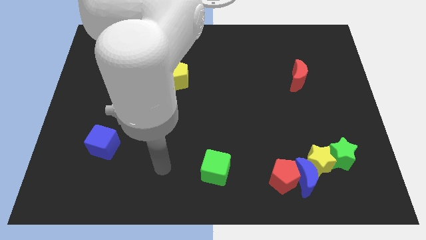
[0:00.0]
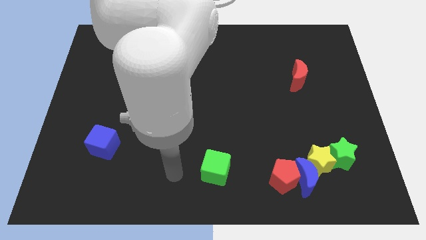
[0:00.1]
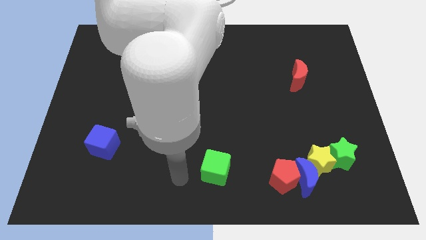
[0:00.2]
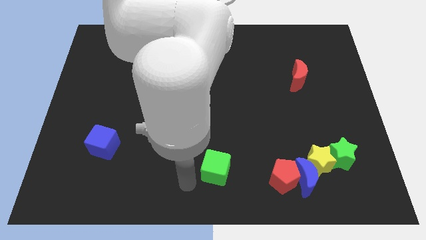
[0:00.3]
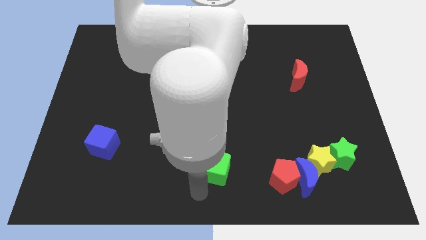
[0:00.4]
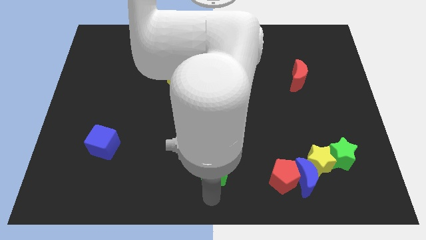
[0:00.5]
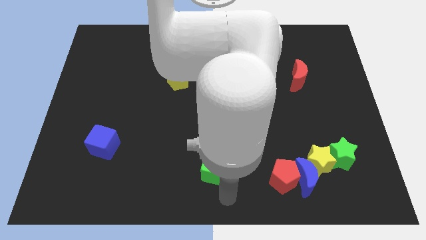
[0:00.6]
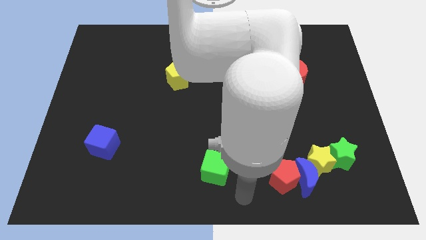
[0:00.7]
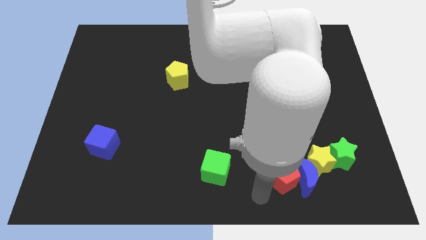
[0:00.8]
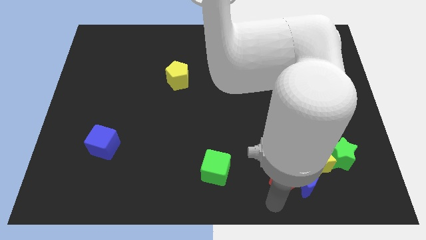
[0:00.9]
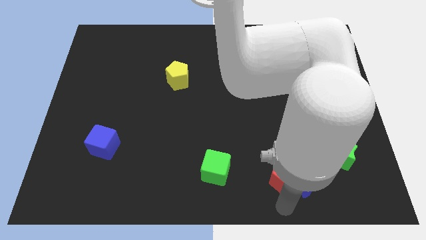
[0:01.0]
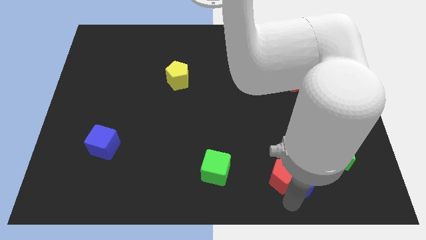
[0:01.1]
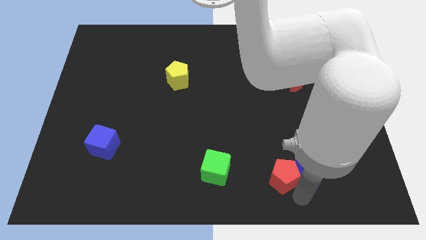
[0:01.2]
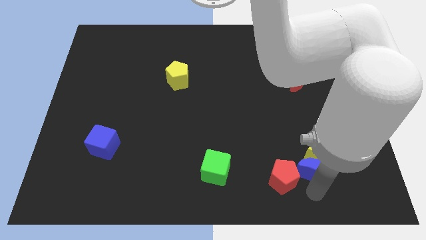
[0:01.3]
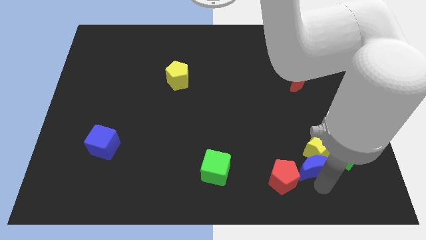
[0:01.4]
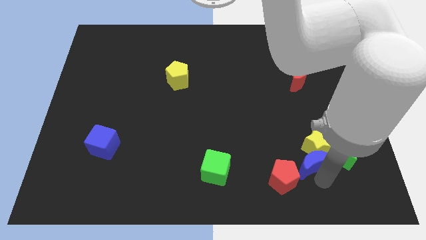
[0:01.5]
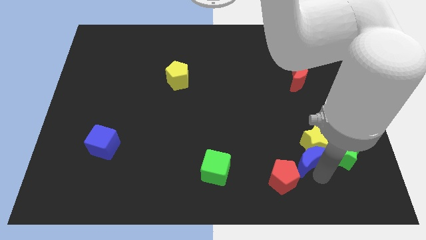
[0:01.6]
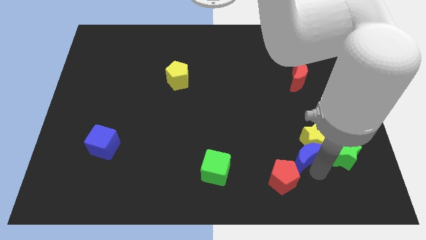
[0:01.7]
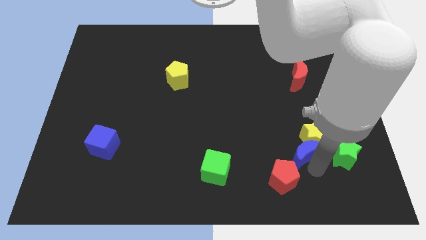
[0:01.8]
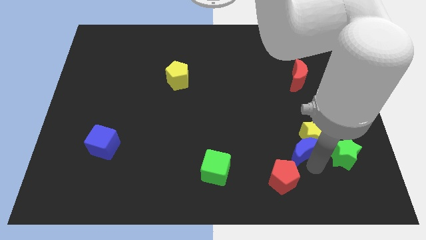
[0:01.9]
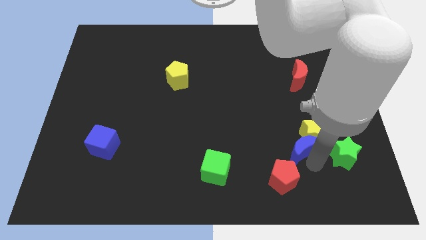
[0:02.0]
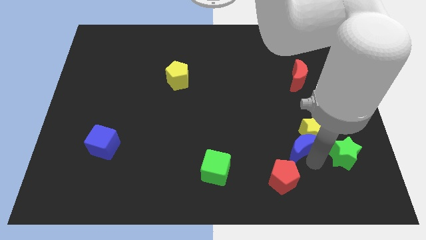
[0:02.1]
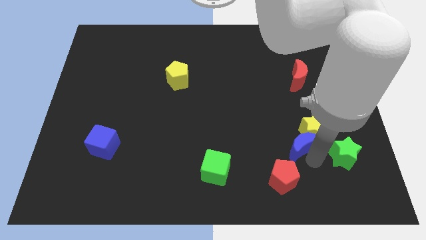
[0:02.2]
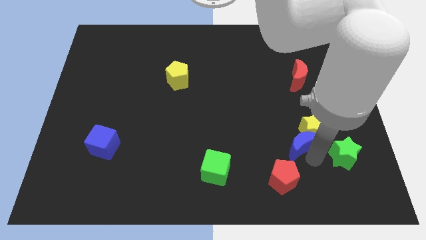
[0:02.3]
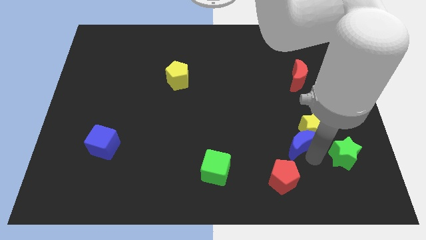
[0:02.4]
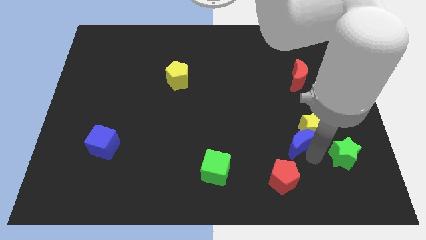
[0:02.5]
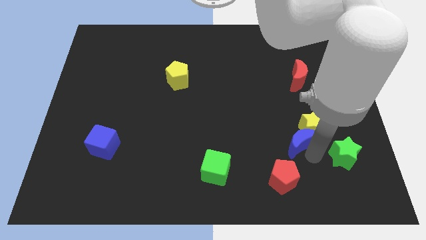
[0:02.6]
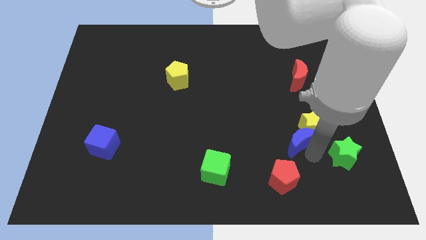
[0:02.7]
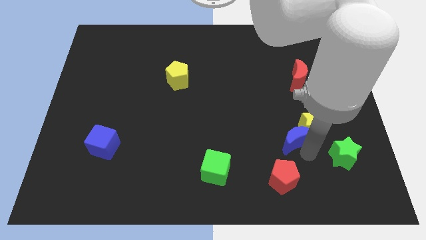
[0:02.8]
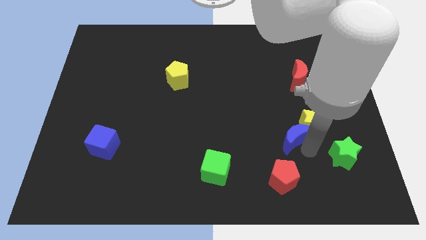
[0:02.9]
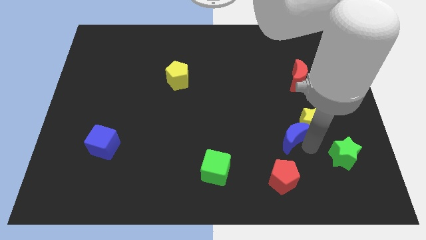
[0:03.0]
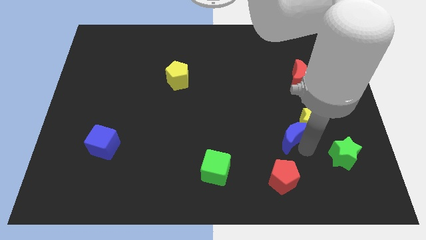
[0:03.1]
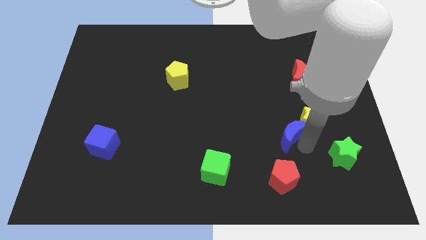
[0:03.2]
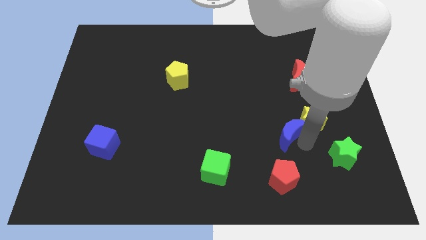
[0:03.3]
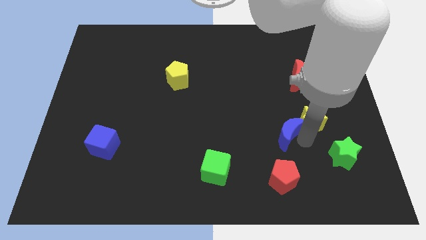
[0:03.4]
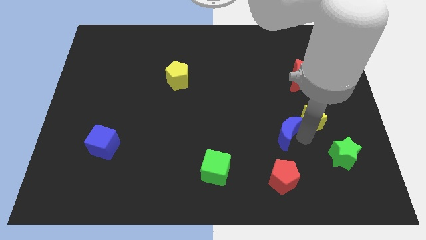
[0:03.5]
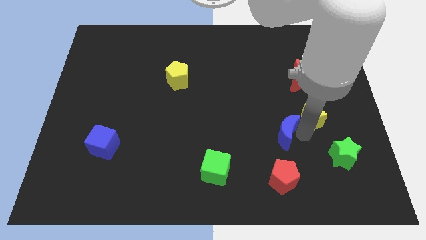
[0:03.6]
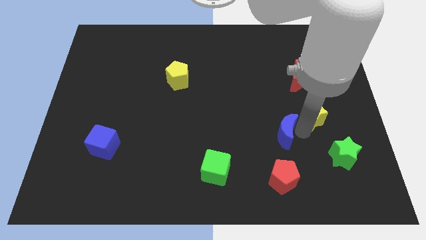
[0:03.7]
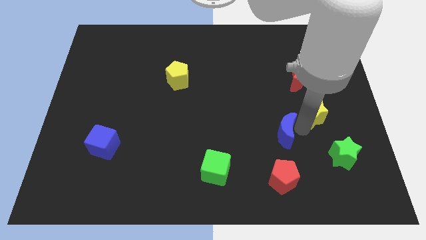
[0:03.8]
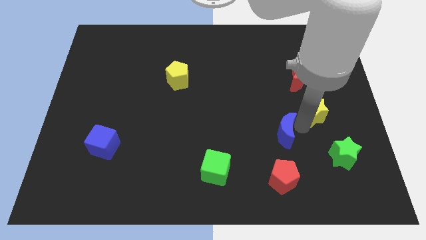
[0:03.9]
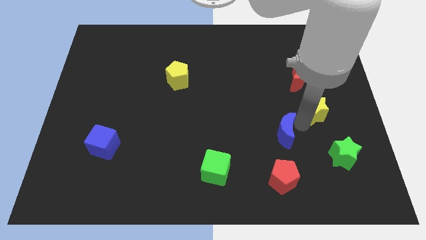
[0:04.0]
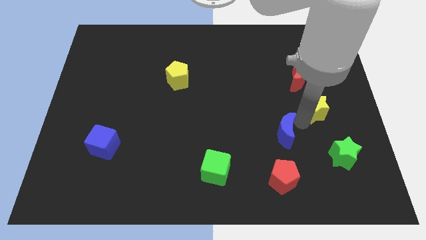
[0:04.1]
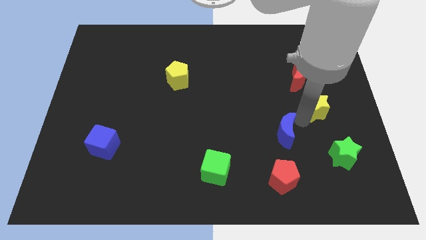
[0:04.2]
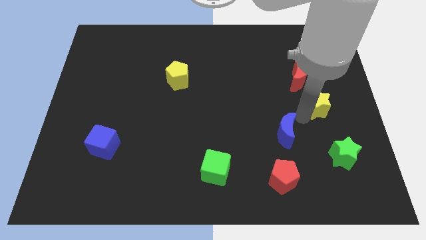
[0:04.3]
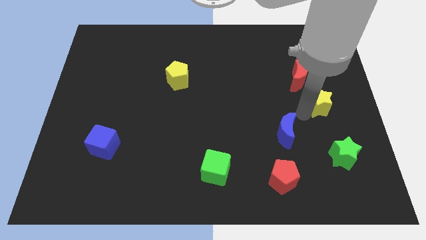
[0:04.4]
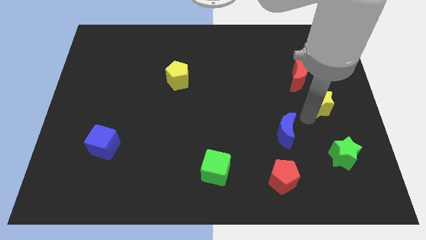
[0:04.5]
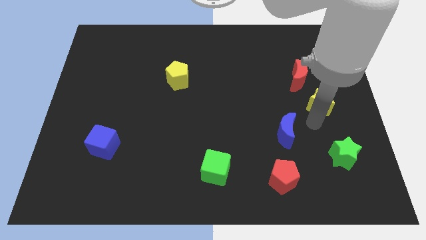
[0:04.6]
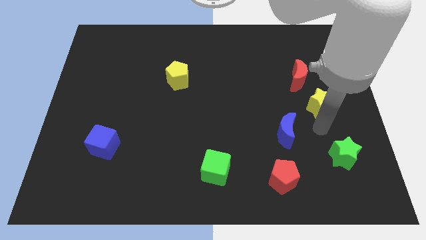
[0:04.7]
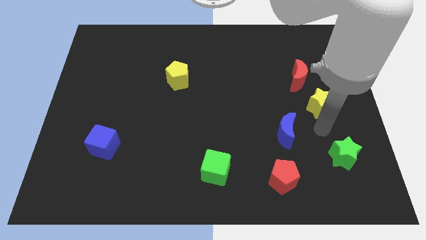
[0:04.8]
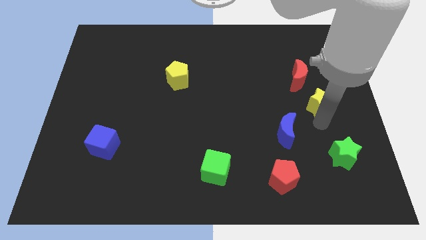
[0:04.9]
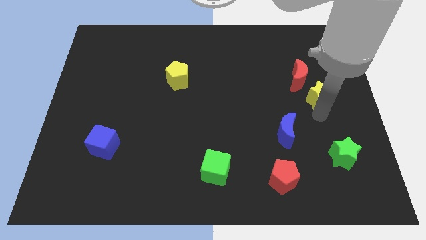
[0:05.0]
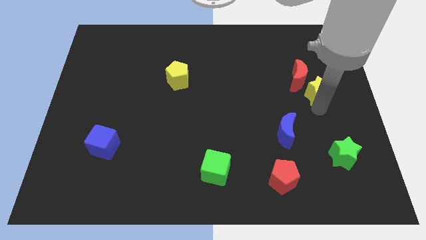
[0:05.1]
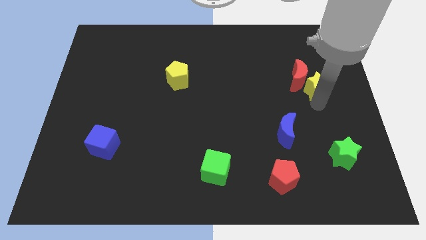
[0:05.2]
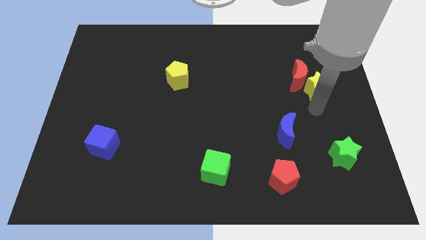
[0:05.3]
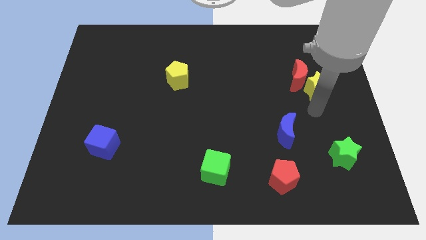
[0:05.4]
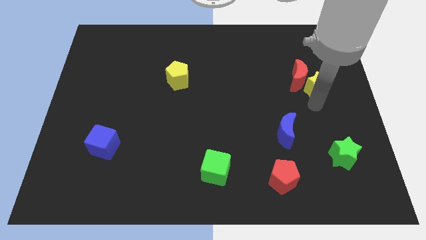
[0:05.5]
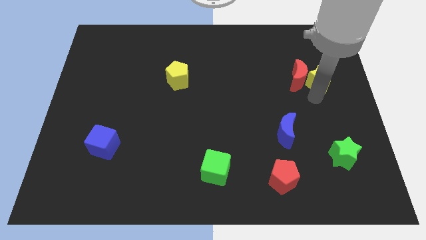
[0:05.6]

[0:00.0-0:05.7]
slide the yellow star to the top right of the red moon

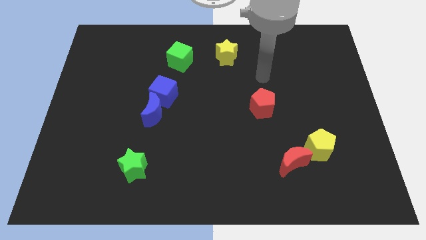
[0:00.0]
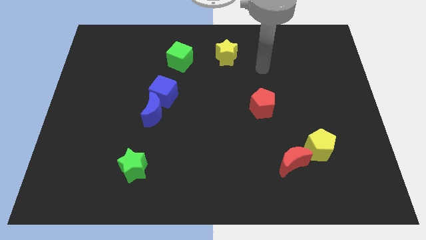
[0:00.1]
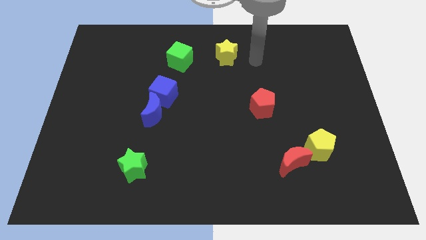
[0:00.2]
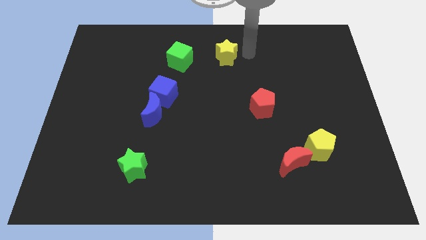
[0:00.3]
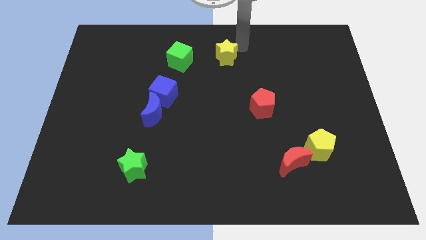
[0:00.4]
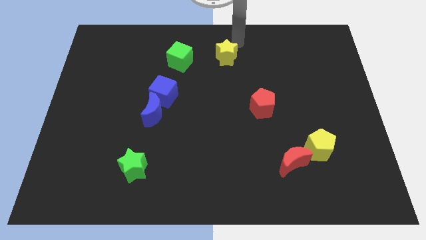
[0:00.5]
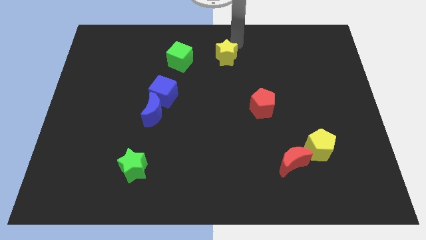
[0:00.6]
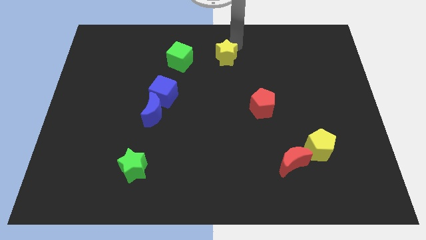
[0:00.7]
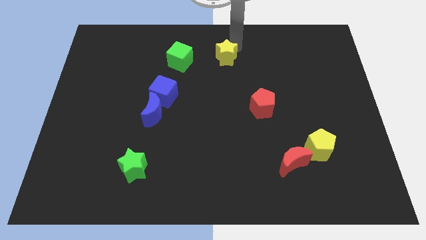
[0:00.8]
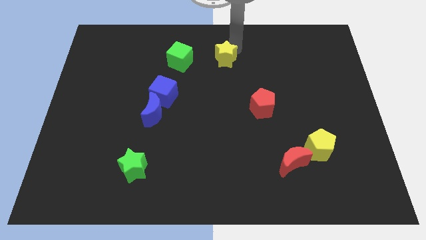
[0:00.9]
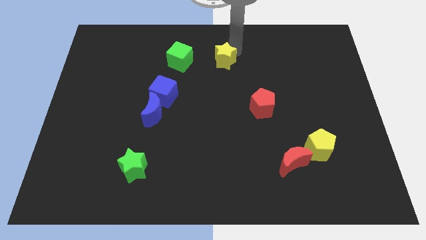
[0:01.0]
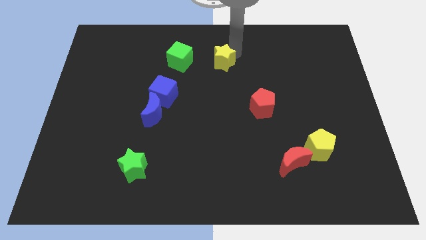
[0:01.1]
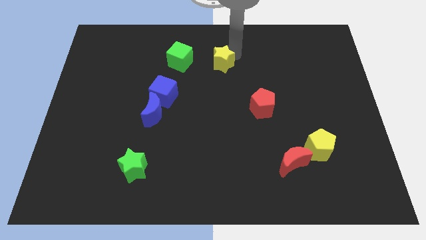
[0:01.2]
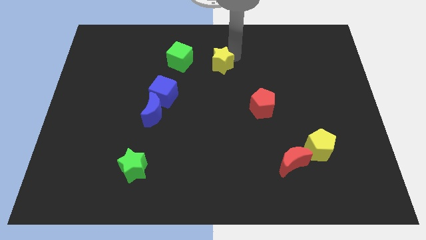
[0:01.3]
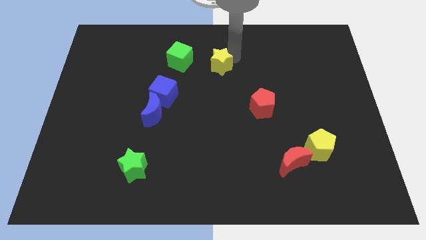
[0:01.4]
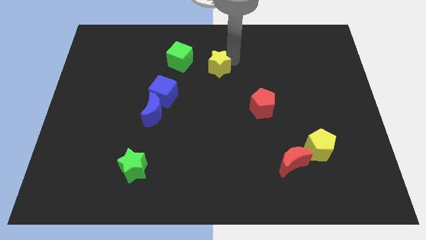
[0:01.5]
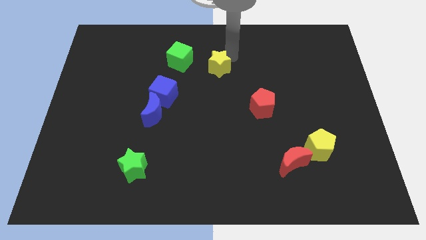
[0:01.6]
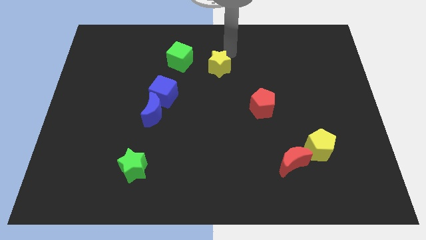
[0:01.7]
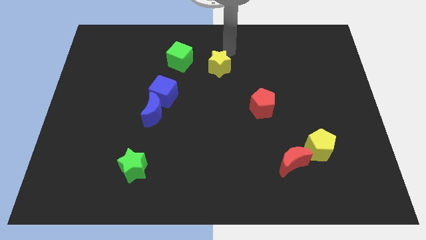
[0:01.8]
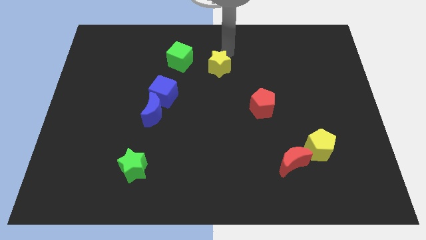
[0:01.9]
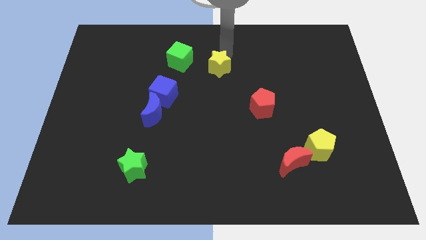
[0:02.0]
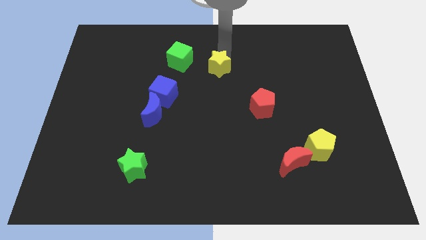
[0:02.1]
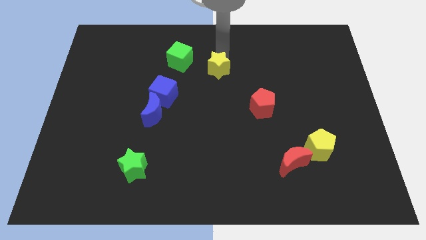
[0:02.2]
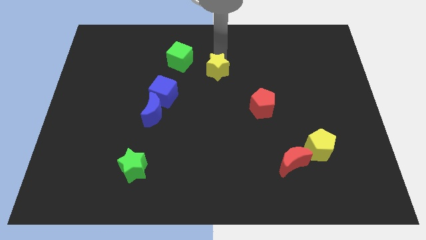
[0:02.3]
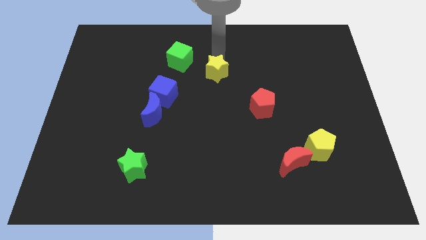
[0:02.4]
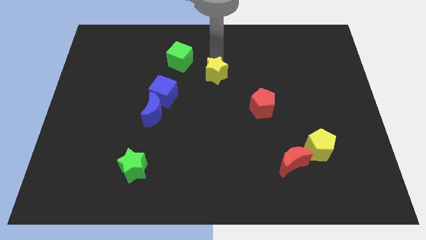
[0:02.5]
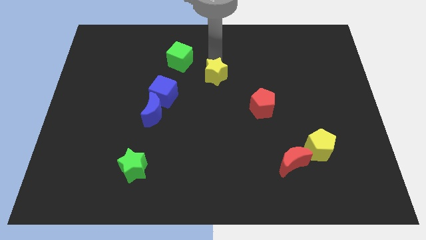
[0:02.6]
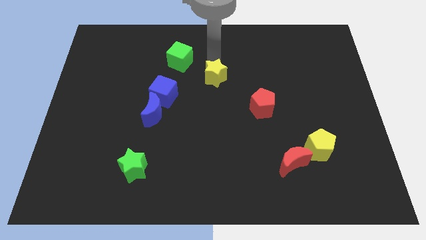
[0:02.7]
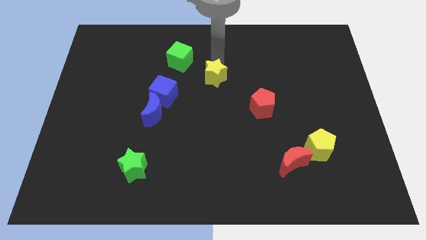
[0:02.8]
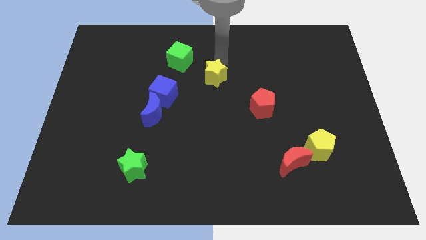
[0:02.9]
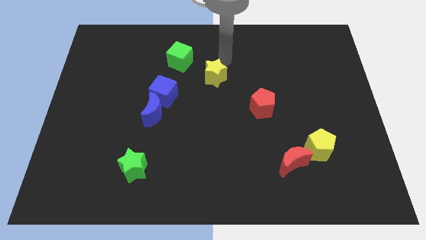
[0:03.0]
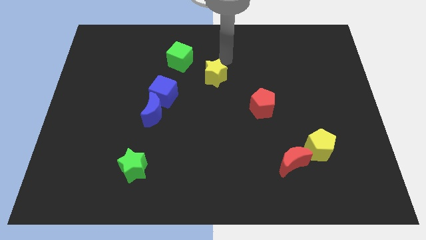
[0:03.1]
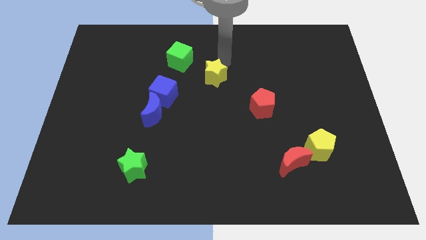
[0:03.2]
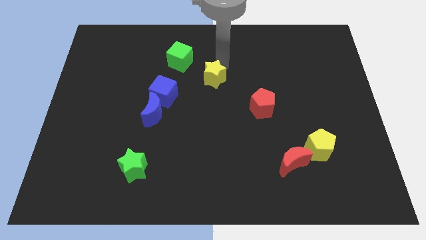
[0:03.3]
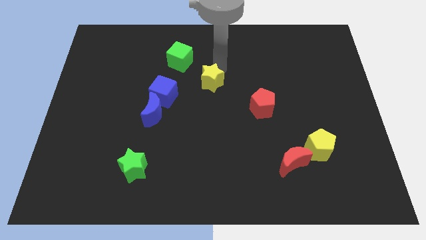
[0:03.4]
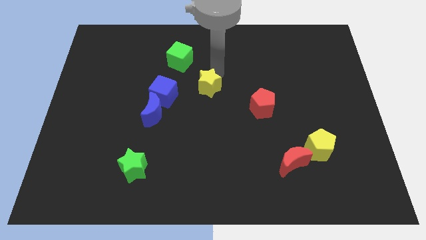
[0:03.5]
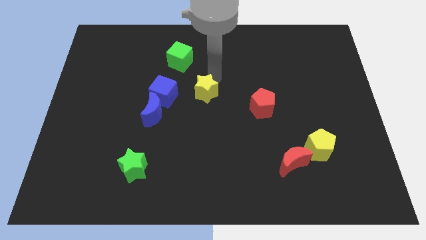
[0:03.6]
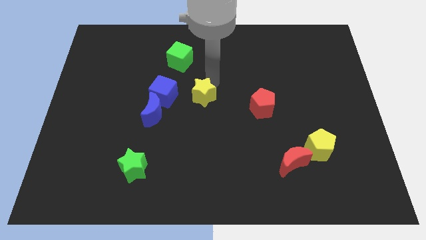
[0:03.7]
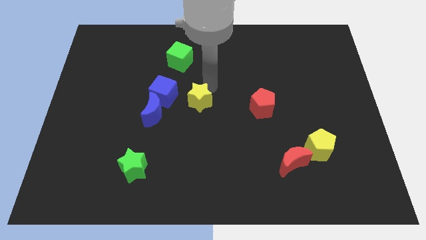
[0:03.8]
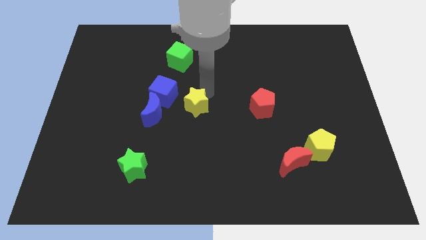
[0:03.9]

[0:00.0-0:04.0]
slide the yellow star to the bottom right side of the blue cube
